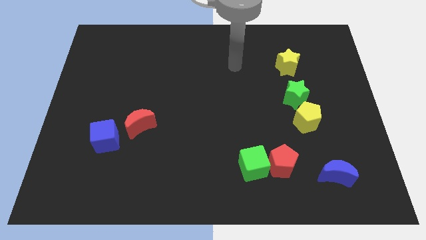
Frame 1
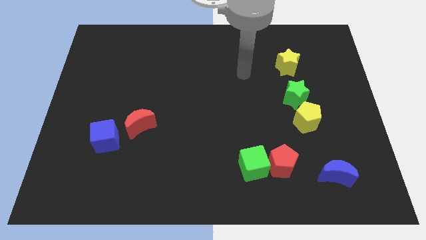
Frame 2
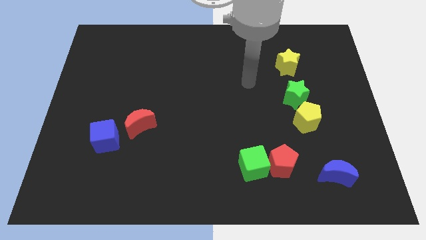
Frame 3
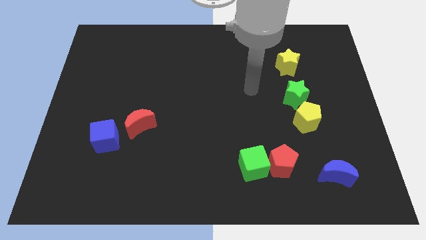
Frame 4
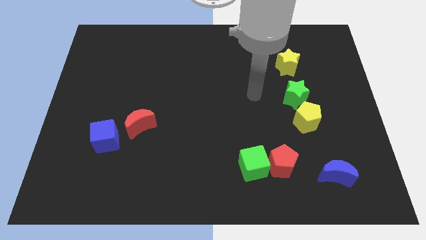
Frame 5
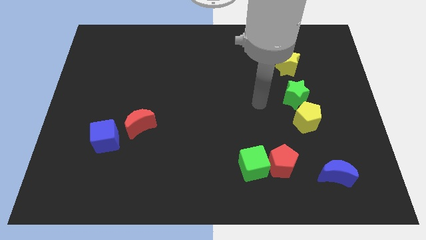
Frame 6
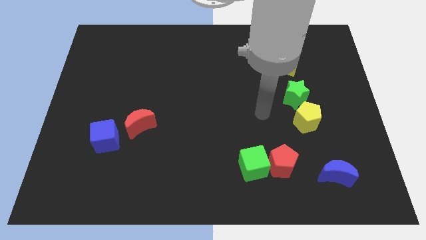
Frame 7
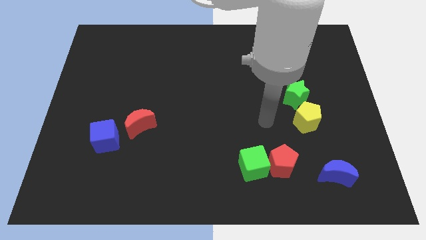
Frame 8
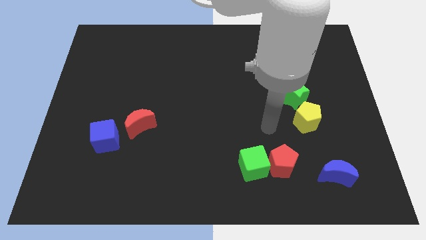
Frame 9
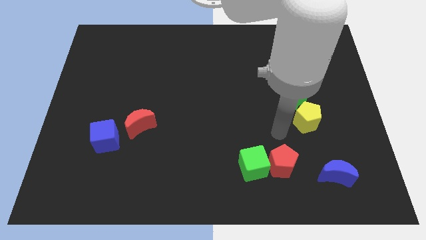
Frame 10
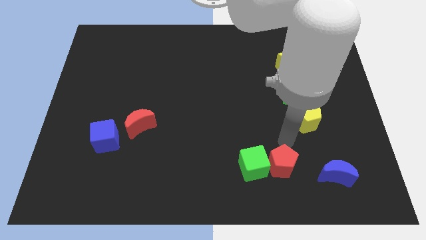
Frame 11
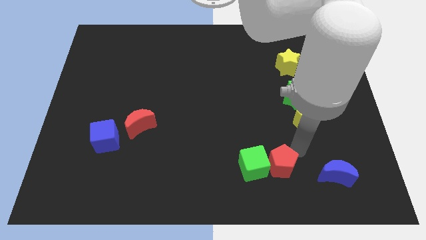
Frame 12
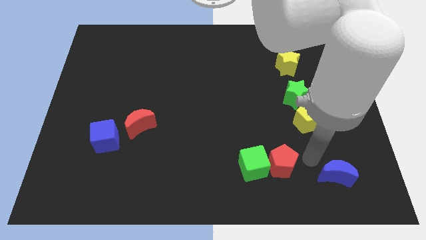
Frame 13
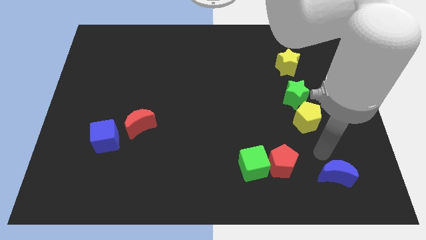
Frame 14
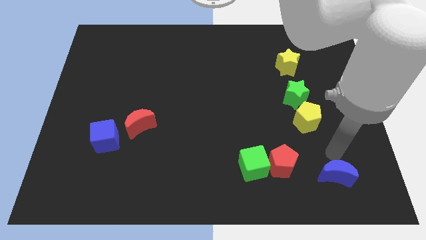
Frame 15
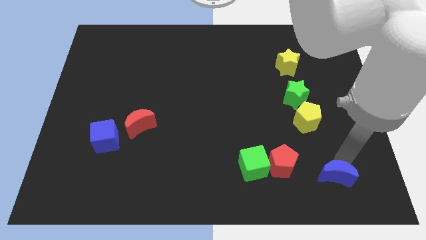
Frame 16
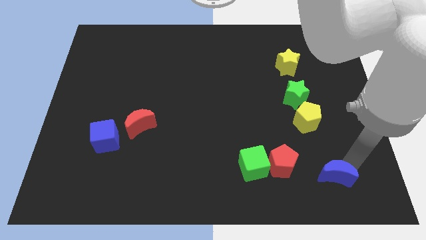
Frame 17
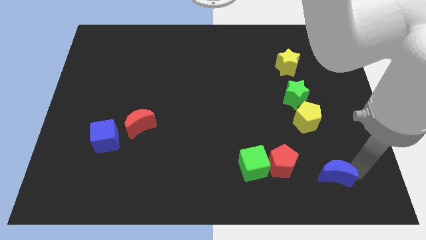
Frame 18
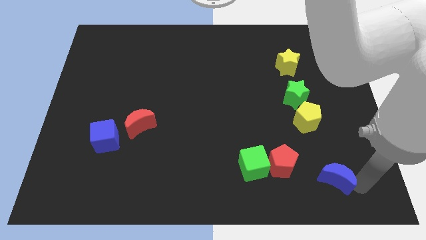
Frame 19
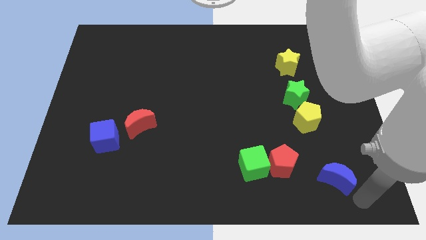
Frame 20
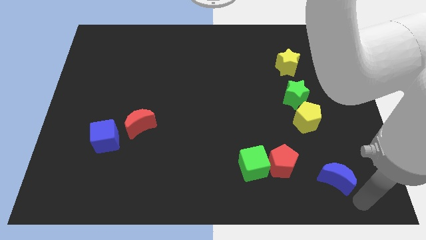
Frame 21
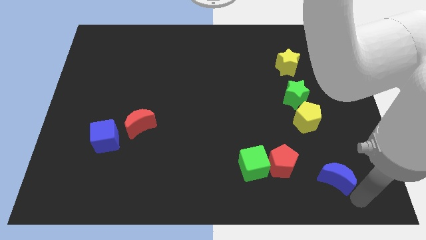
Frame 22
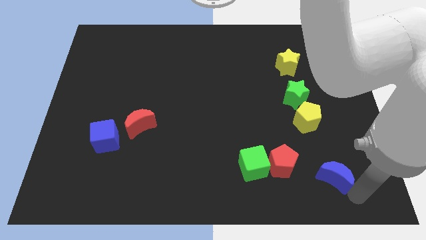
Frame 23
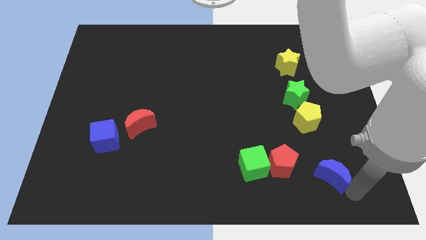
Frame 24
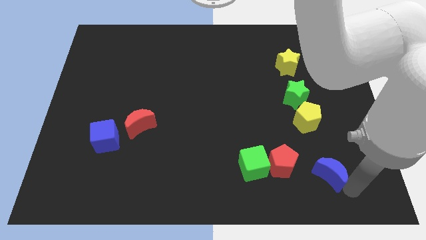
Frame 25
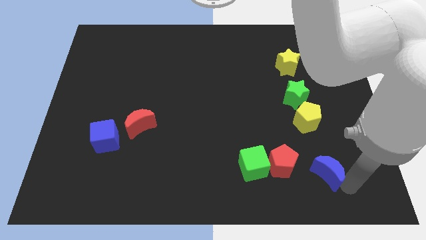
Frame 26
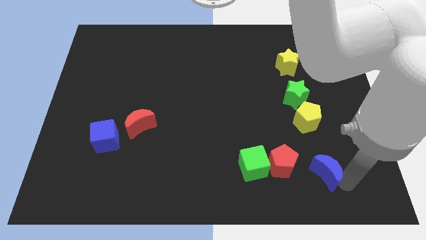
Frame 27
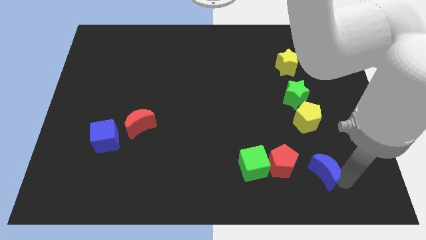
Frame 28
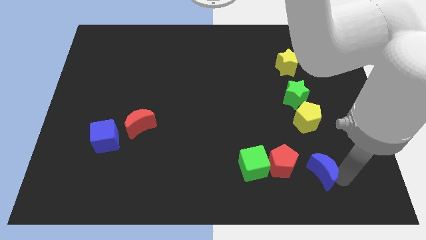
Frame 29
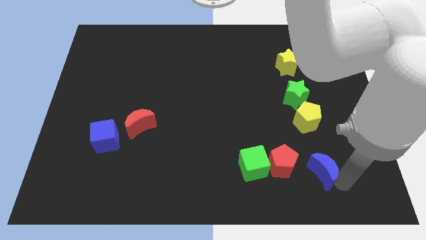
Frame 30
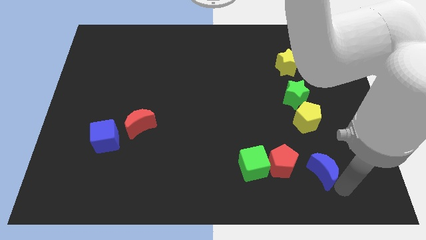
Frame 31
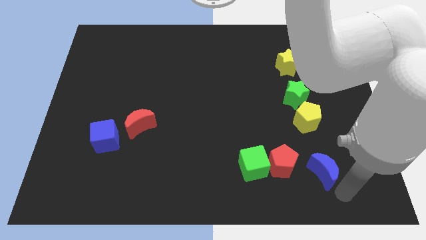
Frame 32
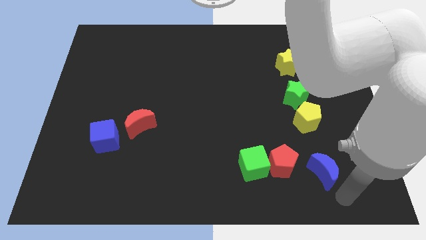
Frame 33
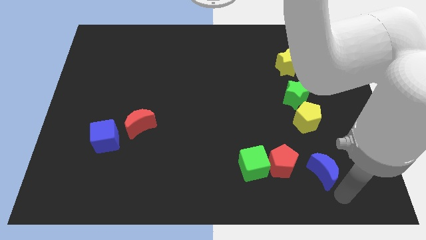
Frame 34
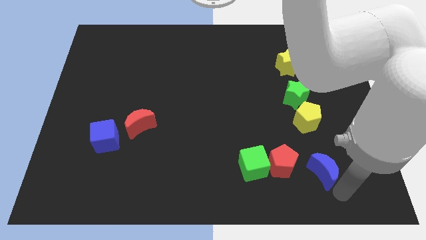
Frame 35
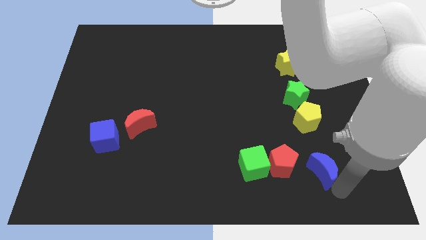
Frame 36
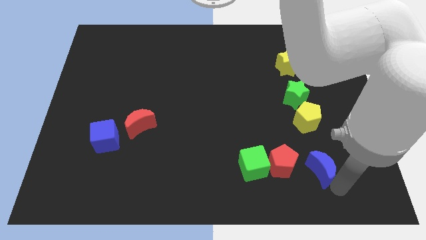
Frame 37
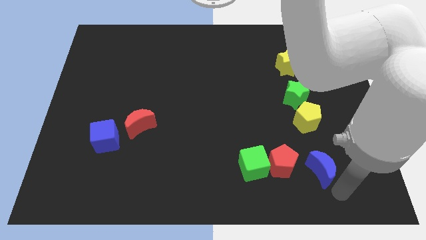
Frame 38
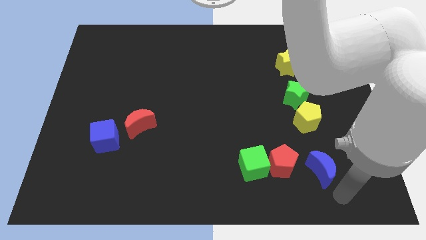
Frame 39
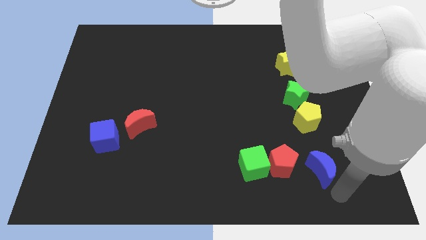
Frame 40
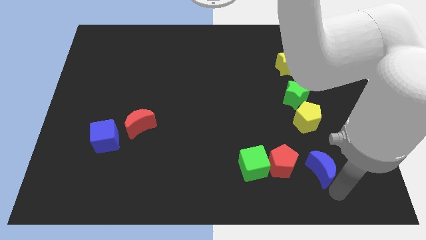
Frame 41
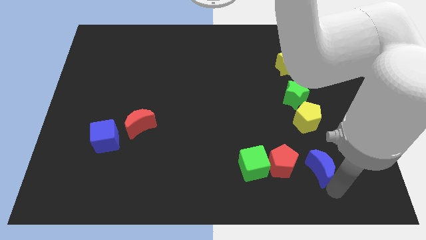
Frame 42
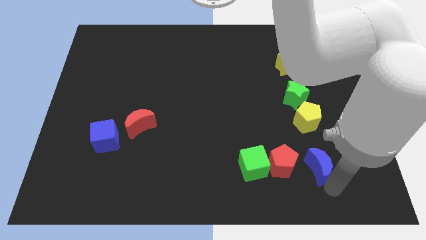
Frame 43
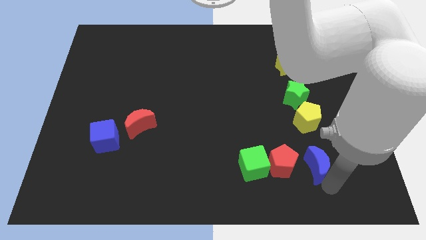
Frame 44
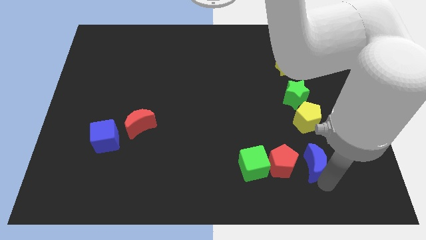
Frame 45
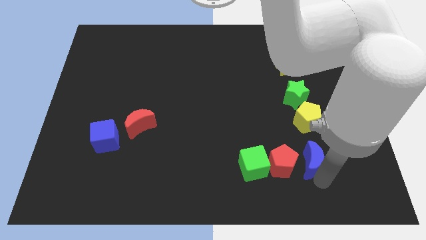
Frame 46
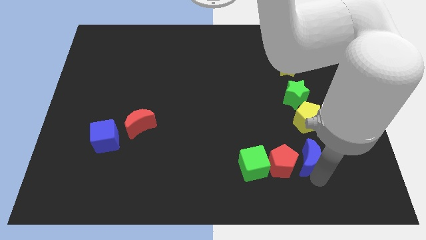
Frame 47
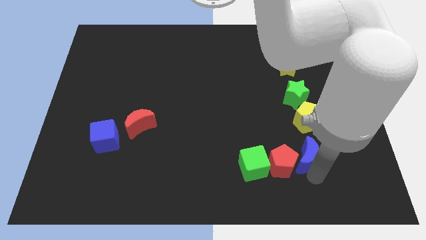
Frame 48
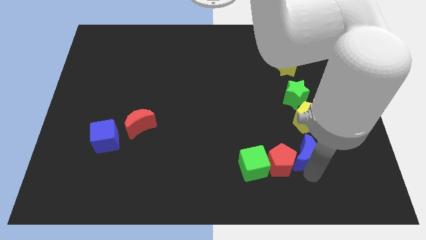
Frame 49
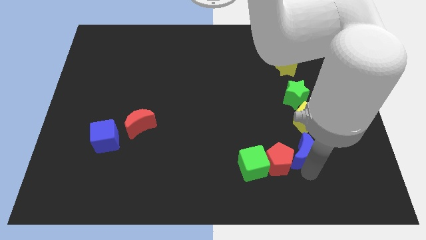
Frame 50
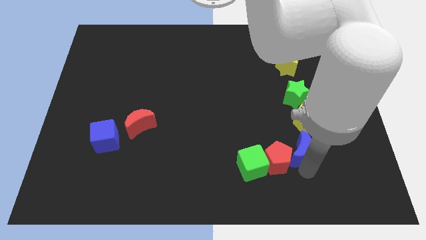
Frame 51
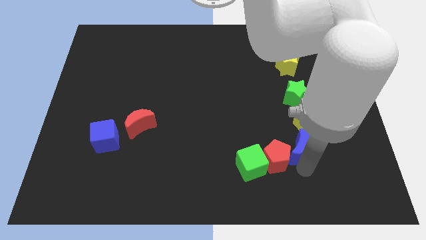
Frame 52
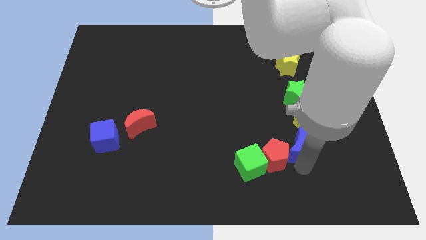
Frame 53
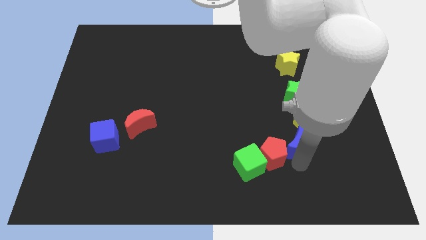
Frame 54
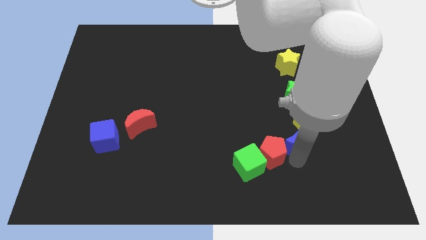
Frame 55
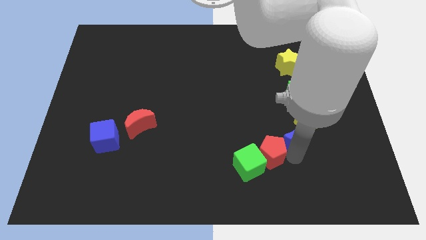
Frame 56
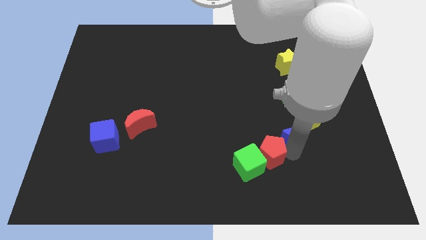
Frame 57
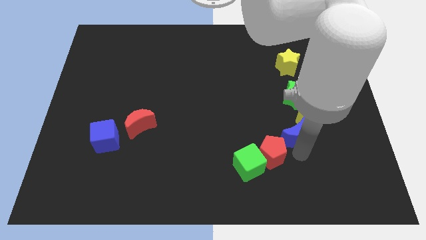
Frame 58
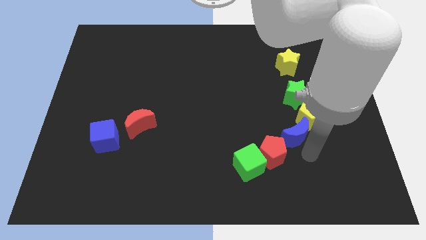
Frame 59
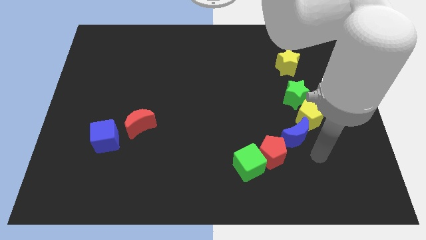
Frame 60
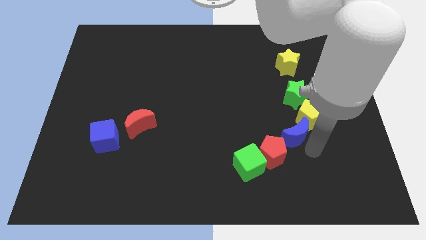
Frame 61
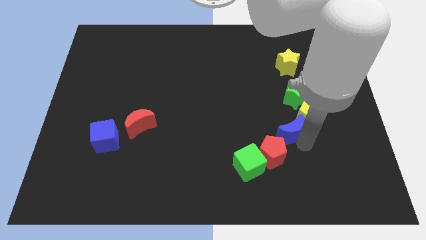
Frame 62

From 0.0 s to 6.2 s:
push the blue moon above the red pentagon

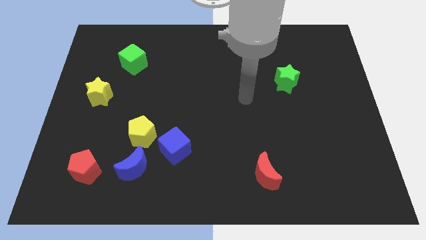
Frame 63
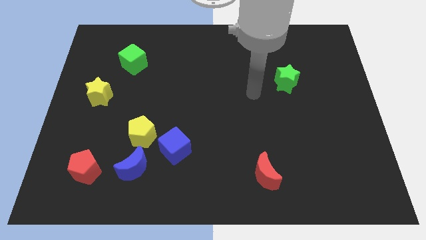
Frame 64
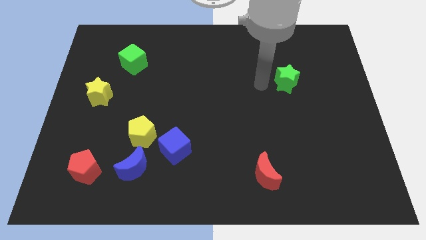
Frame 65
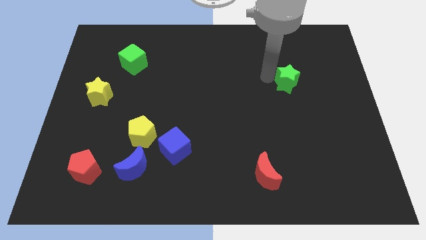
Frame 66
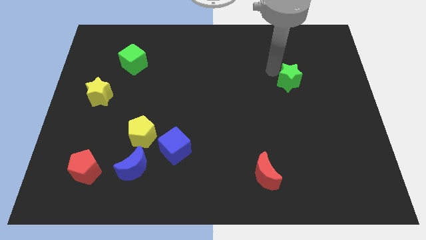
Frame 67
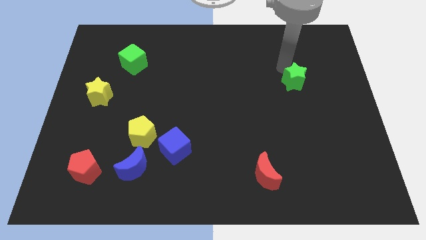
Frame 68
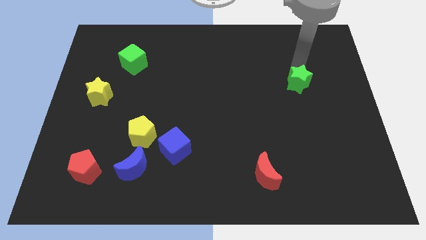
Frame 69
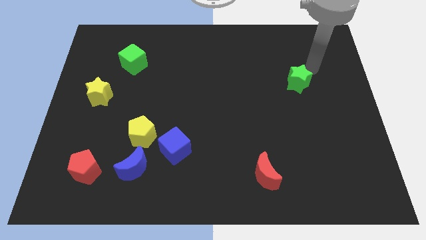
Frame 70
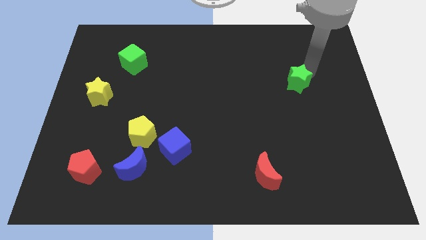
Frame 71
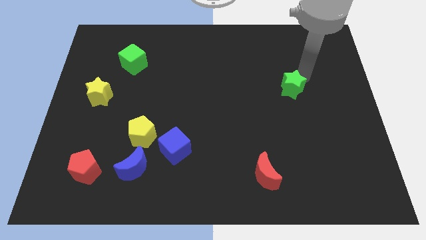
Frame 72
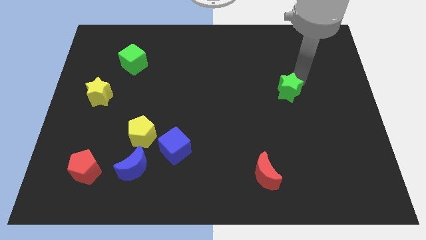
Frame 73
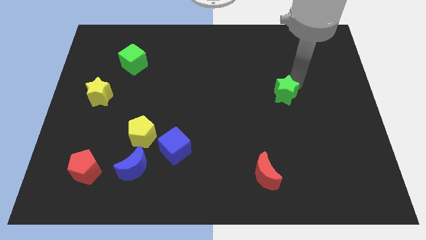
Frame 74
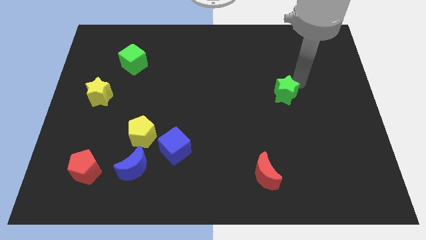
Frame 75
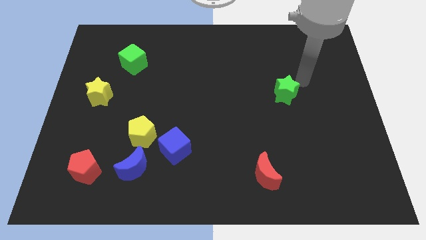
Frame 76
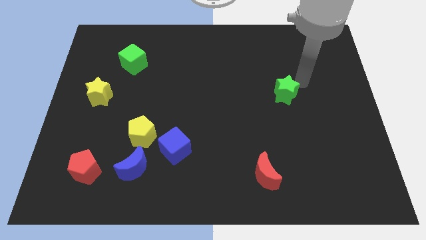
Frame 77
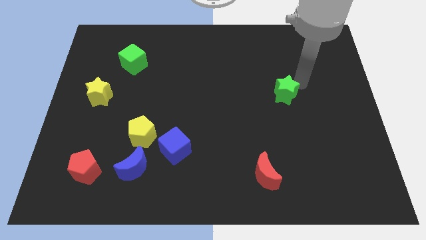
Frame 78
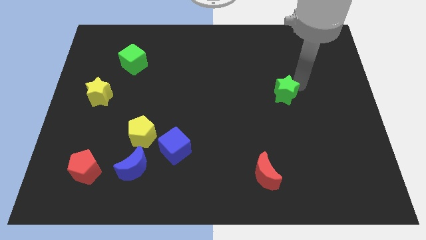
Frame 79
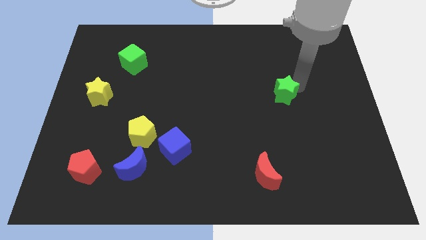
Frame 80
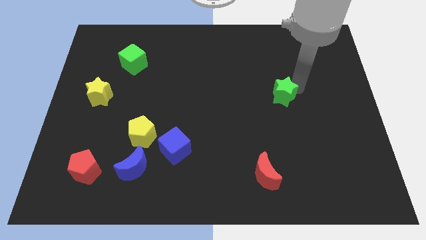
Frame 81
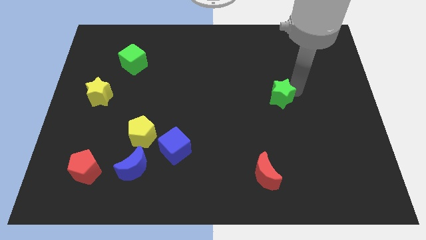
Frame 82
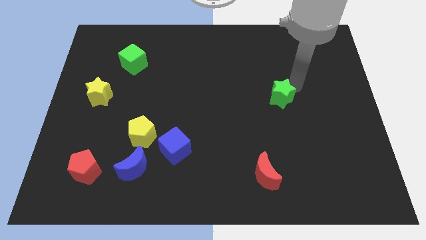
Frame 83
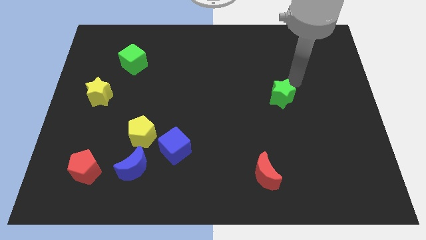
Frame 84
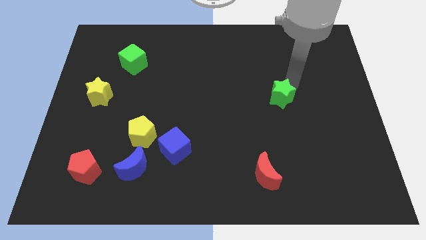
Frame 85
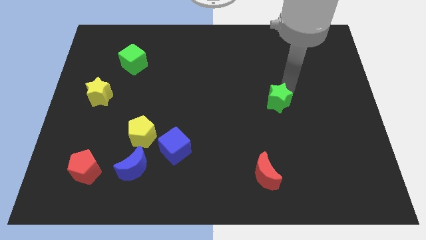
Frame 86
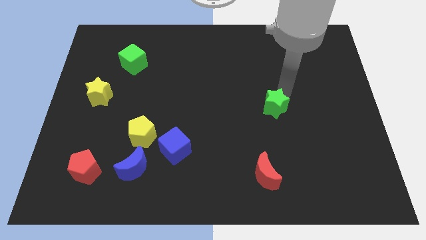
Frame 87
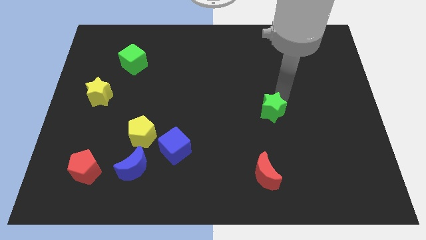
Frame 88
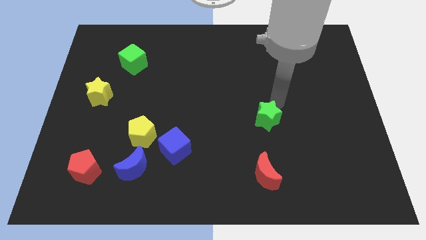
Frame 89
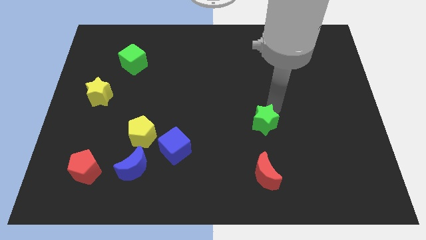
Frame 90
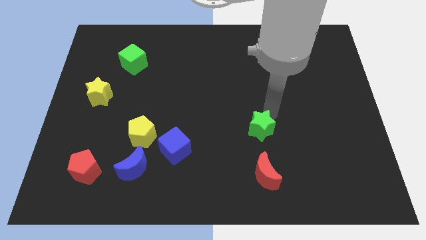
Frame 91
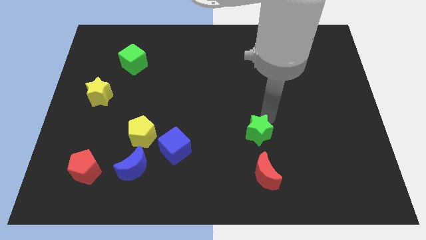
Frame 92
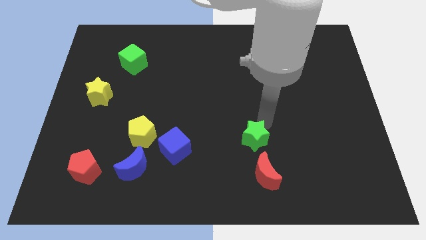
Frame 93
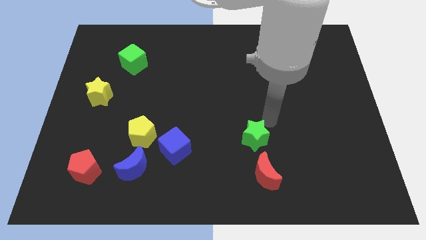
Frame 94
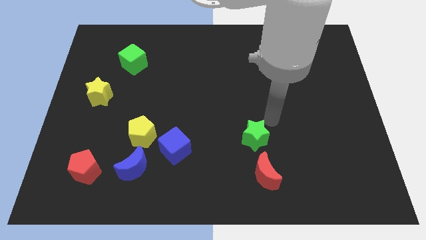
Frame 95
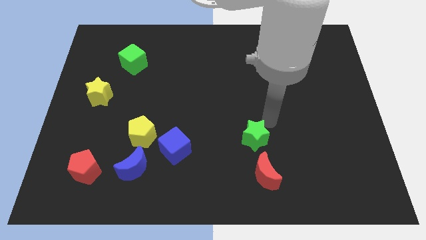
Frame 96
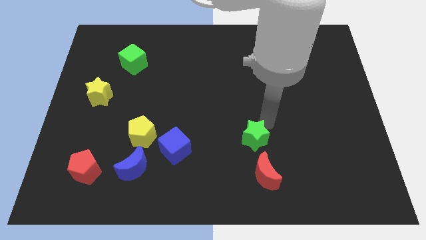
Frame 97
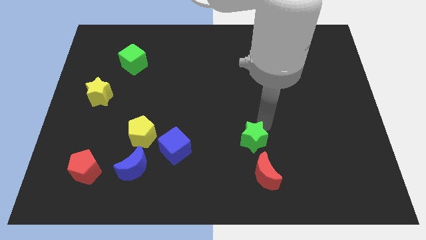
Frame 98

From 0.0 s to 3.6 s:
push the green star to the top left side of the red moon
